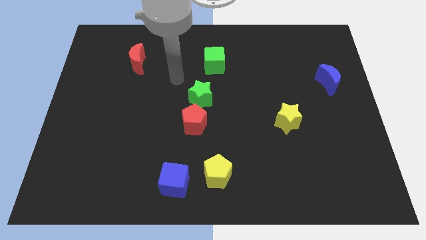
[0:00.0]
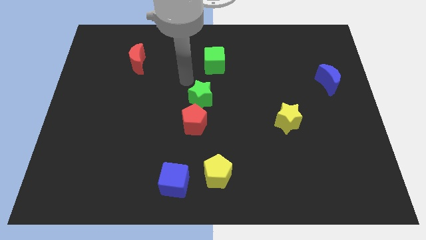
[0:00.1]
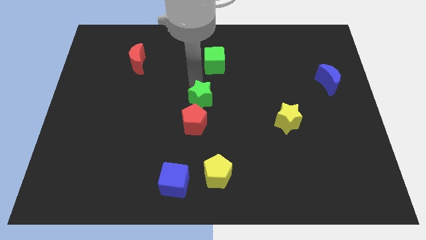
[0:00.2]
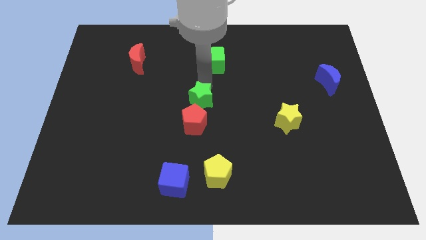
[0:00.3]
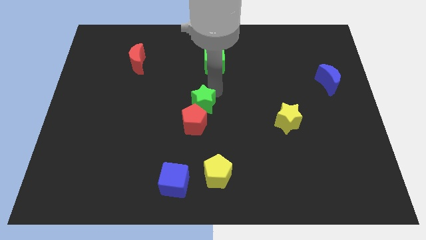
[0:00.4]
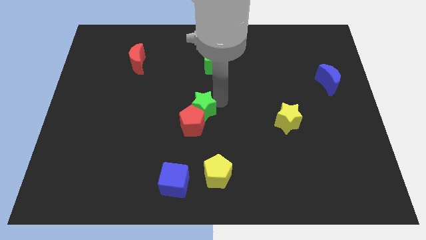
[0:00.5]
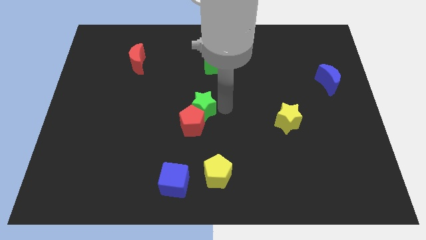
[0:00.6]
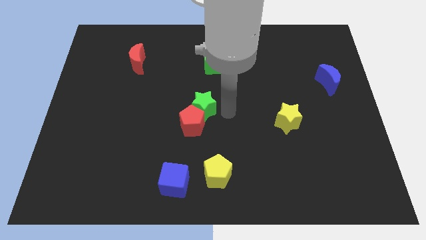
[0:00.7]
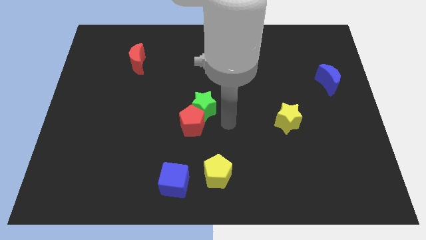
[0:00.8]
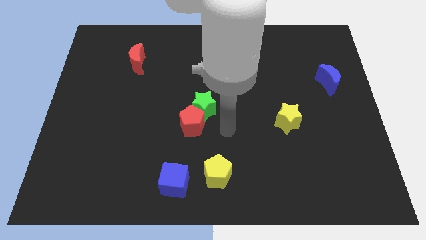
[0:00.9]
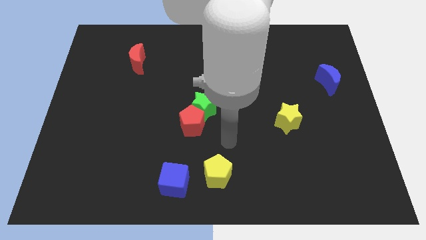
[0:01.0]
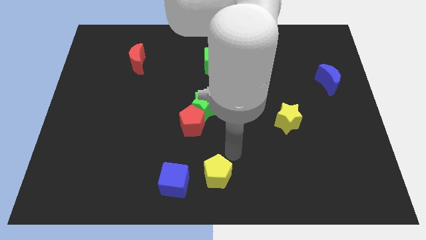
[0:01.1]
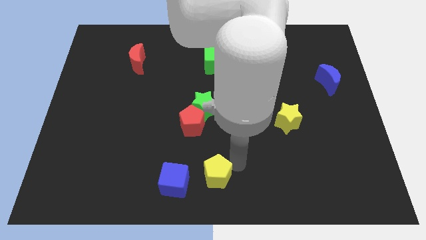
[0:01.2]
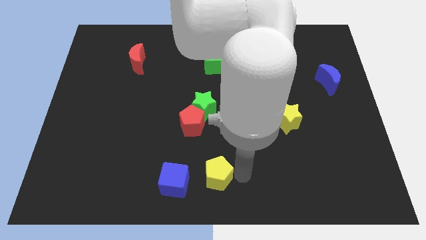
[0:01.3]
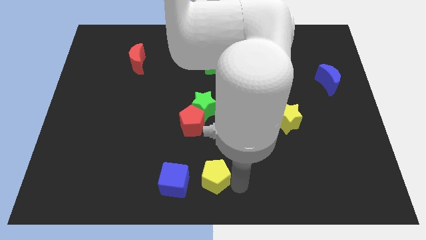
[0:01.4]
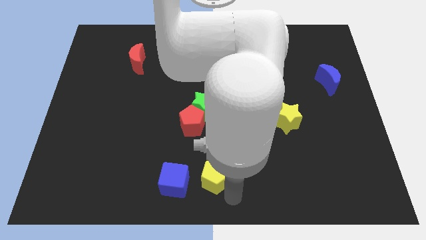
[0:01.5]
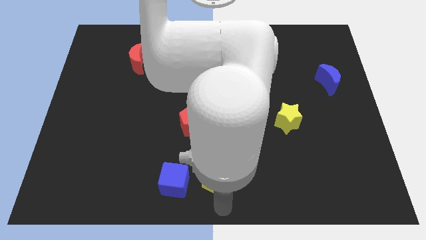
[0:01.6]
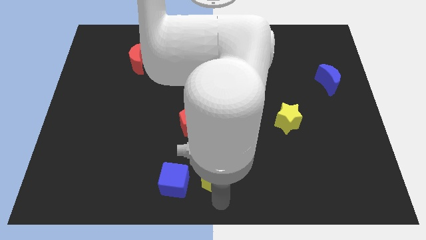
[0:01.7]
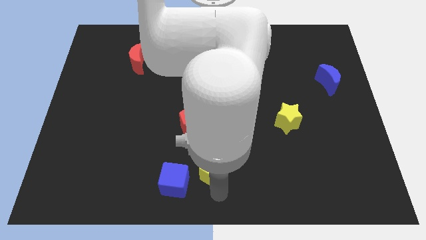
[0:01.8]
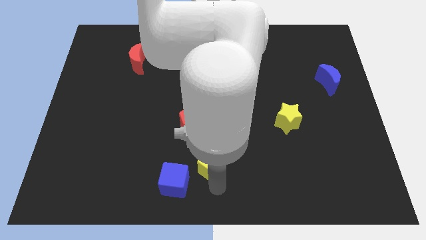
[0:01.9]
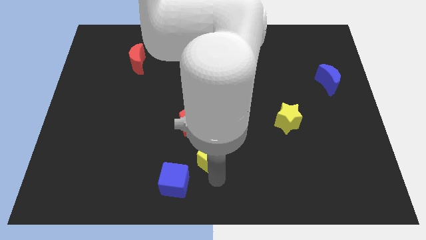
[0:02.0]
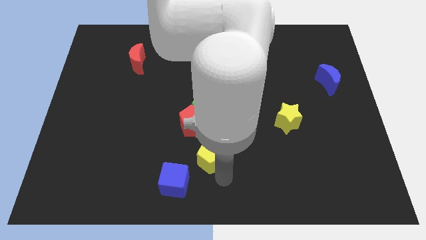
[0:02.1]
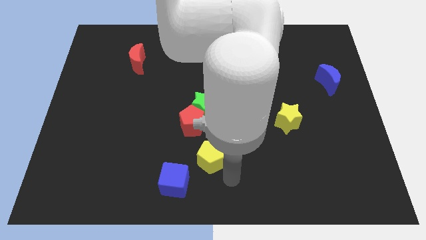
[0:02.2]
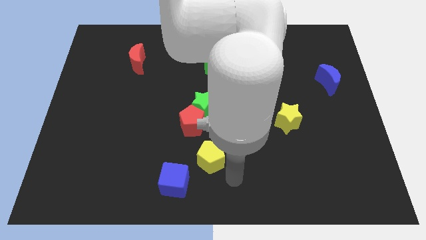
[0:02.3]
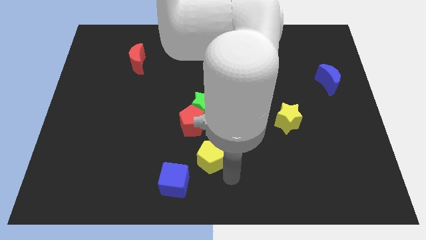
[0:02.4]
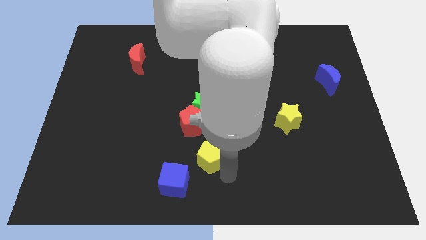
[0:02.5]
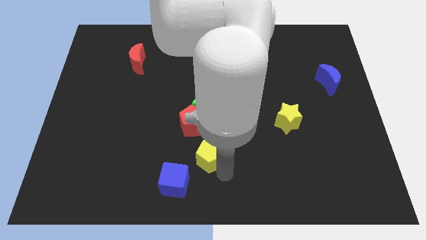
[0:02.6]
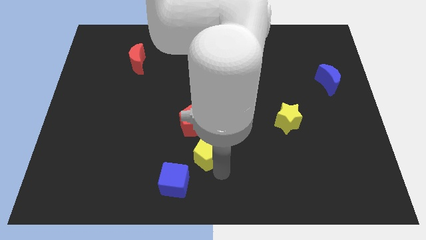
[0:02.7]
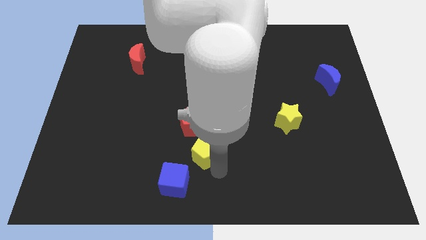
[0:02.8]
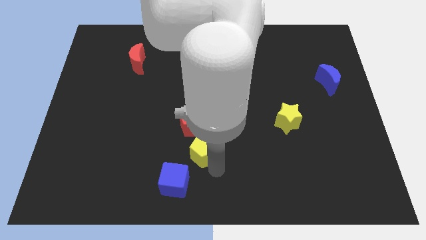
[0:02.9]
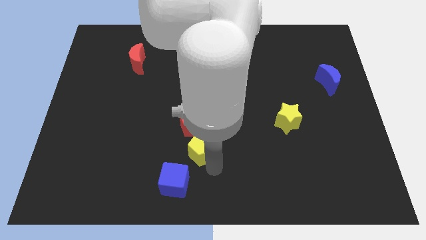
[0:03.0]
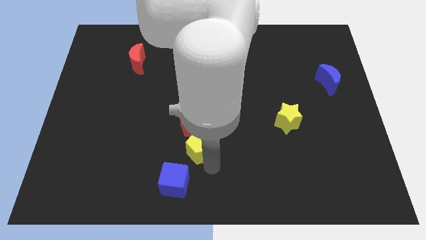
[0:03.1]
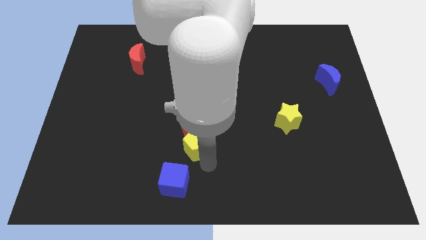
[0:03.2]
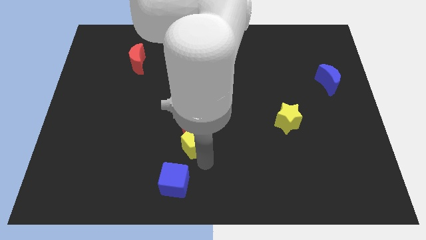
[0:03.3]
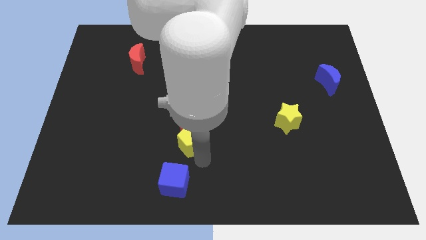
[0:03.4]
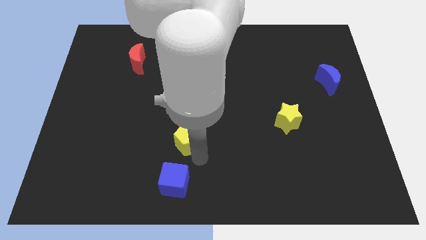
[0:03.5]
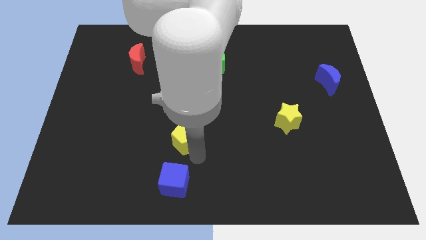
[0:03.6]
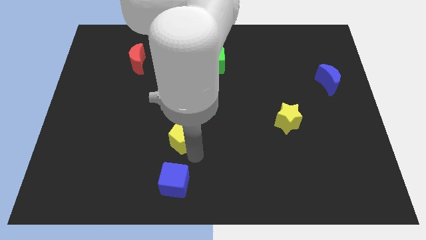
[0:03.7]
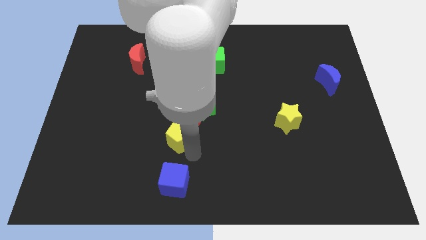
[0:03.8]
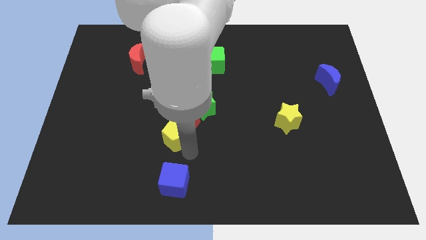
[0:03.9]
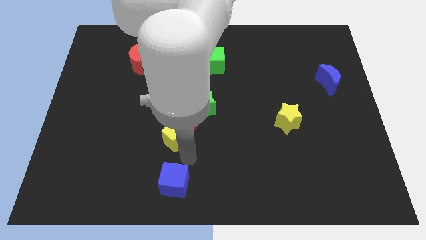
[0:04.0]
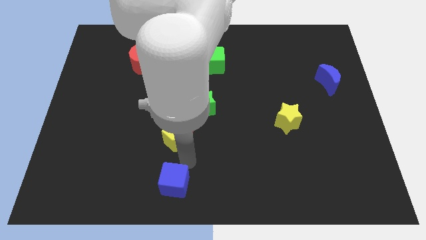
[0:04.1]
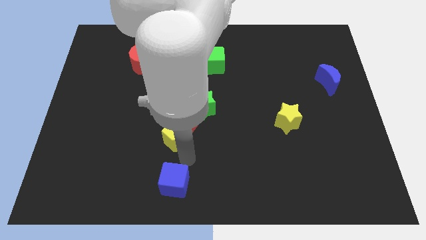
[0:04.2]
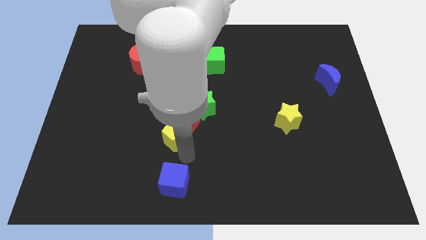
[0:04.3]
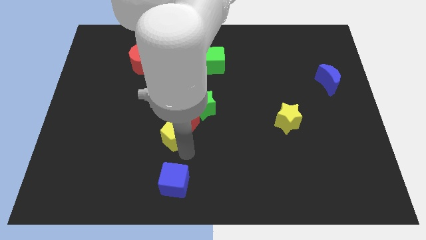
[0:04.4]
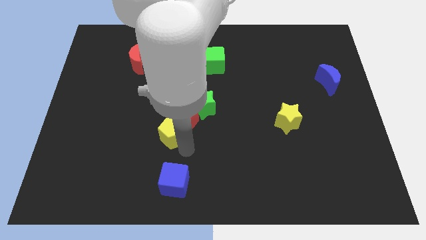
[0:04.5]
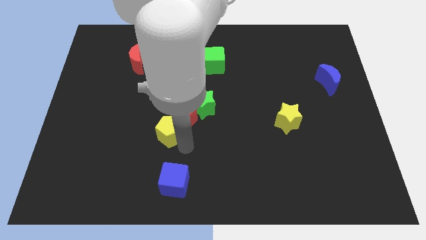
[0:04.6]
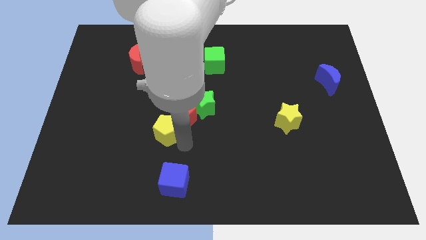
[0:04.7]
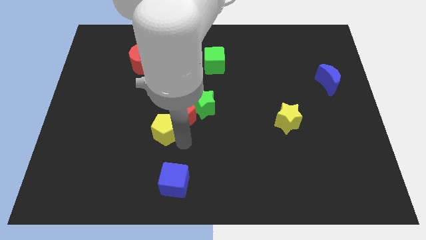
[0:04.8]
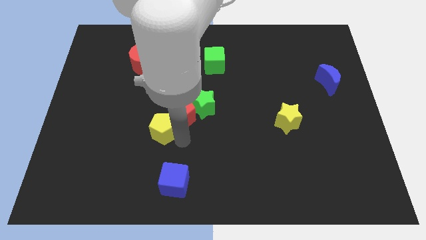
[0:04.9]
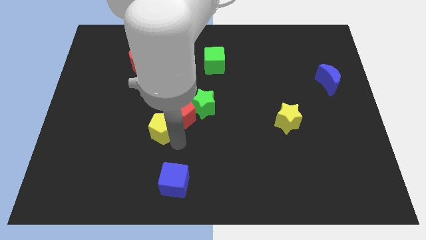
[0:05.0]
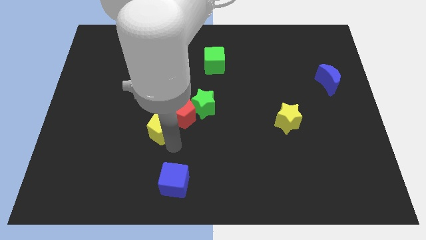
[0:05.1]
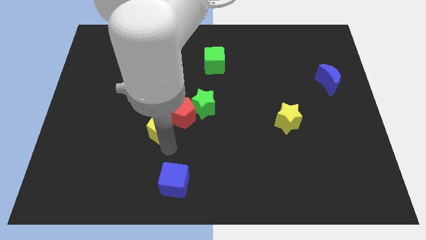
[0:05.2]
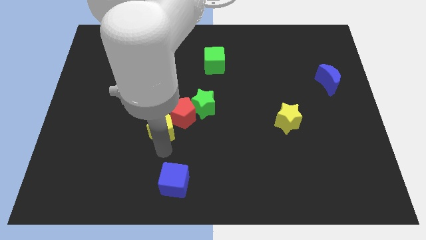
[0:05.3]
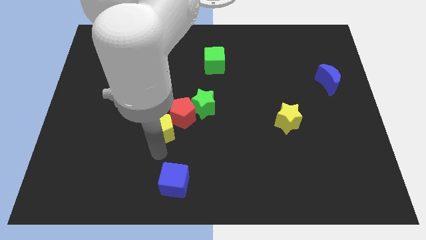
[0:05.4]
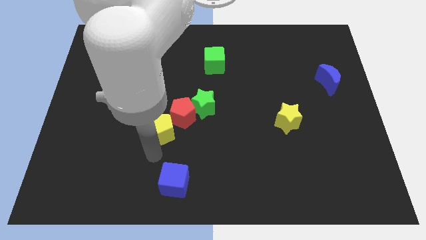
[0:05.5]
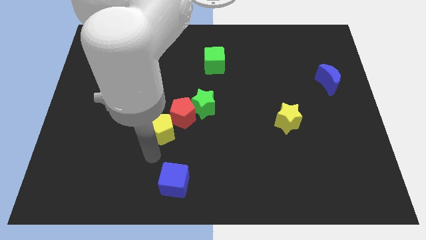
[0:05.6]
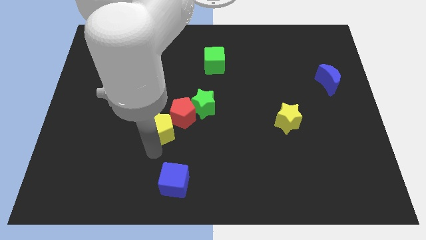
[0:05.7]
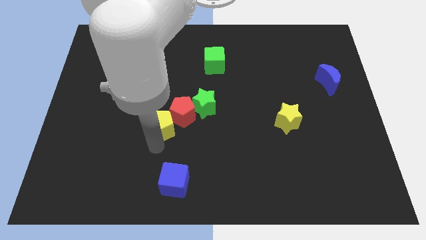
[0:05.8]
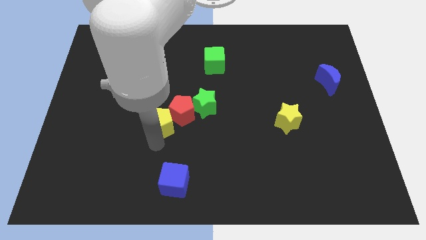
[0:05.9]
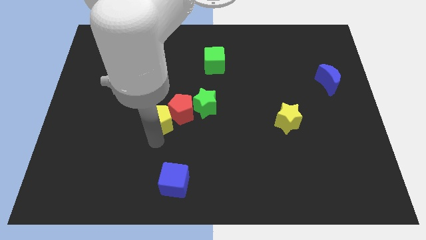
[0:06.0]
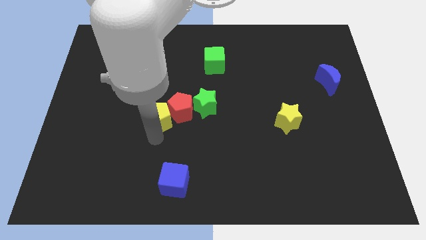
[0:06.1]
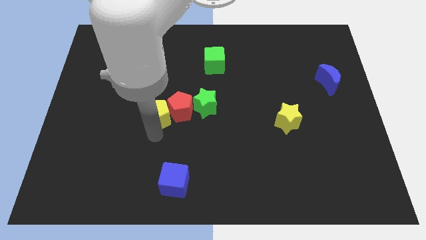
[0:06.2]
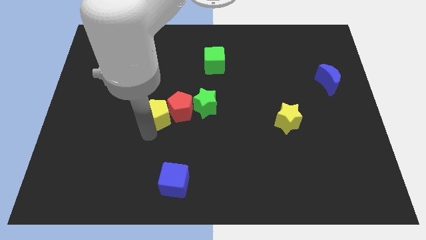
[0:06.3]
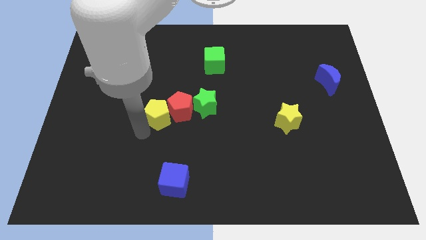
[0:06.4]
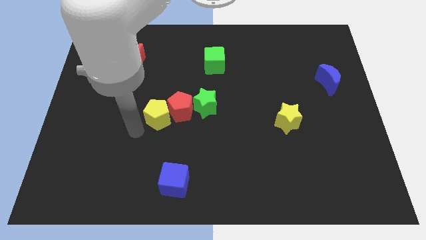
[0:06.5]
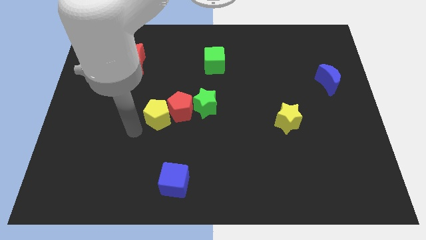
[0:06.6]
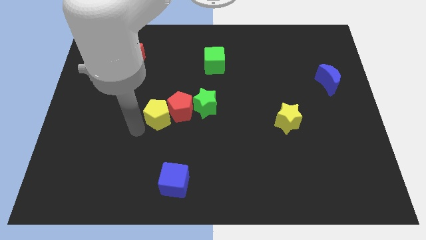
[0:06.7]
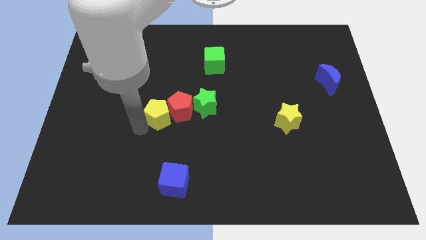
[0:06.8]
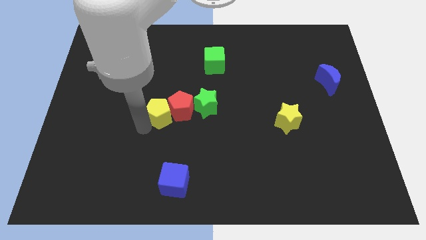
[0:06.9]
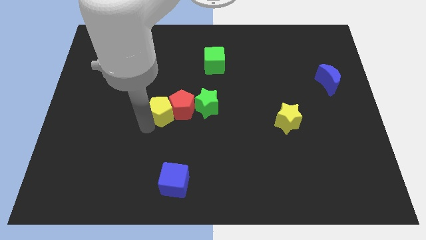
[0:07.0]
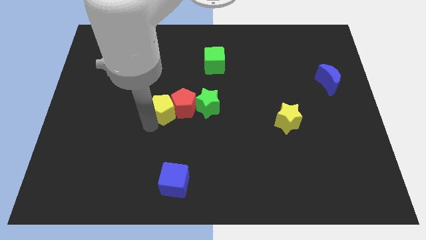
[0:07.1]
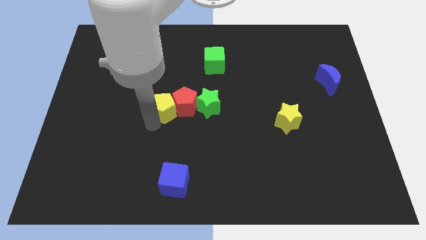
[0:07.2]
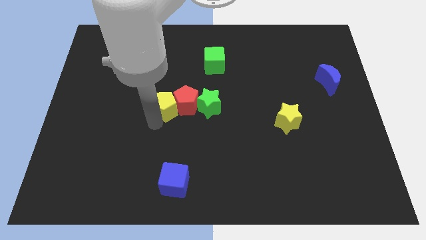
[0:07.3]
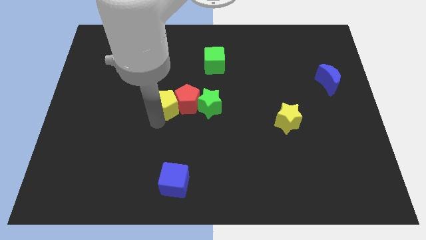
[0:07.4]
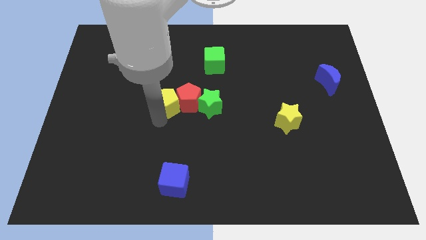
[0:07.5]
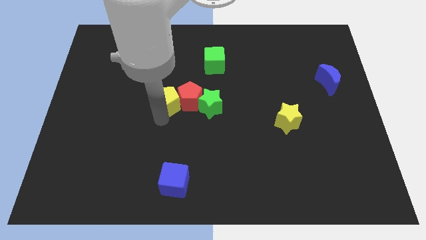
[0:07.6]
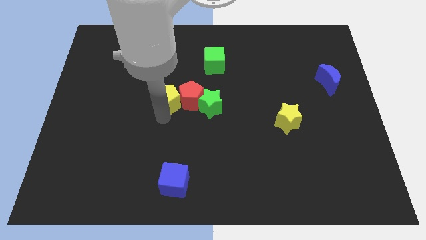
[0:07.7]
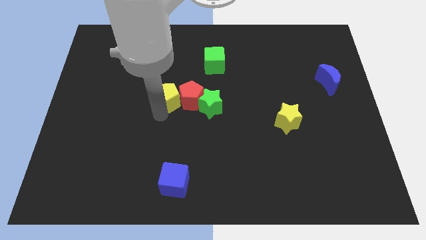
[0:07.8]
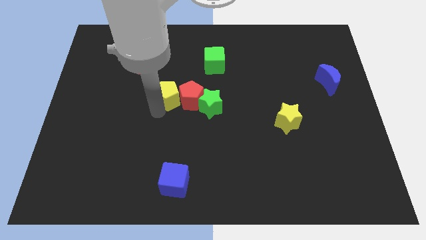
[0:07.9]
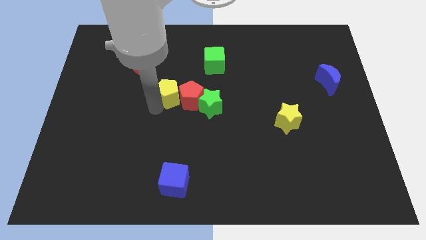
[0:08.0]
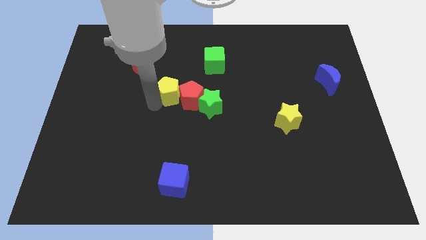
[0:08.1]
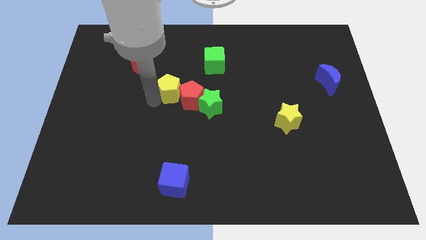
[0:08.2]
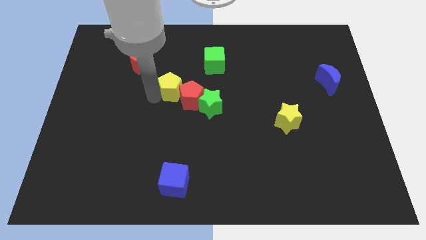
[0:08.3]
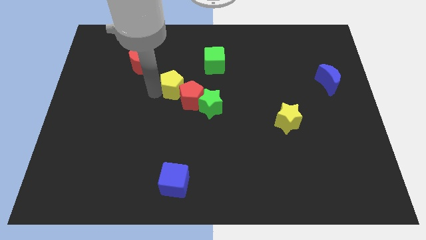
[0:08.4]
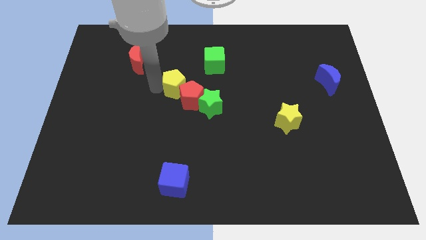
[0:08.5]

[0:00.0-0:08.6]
push the yellow pentagon to the bottom left of the green cube
